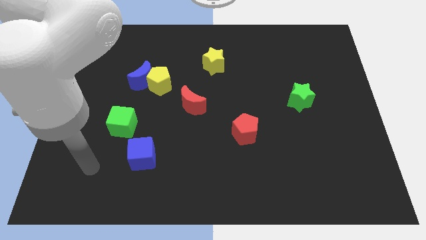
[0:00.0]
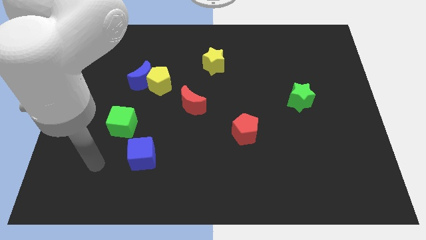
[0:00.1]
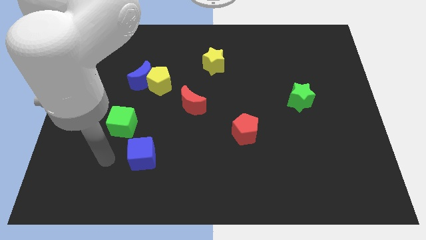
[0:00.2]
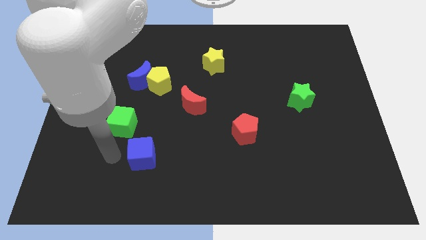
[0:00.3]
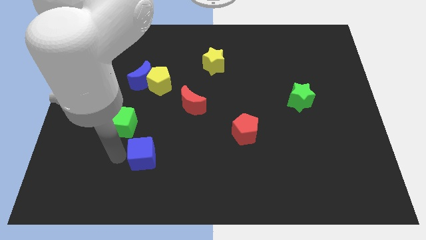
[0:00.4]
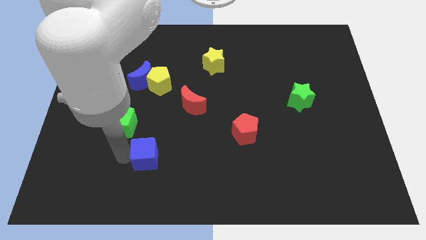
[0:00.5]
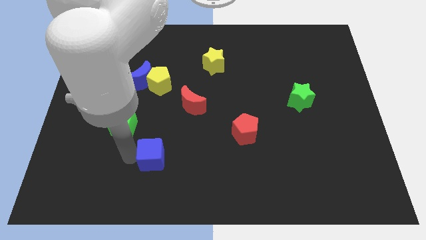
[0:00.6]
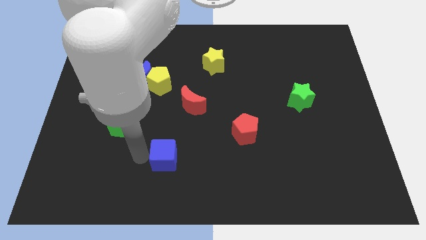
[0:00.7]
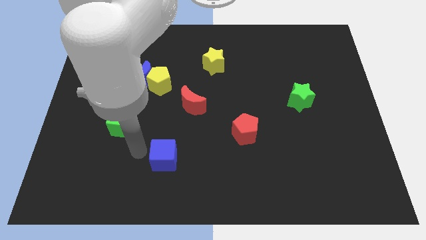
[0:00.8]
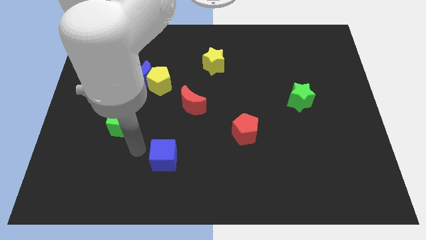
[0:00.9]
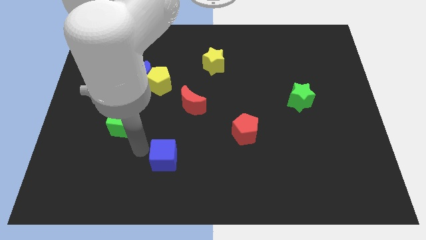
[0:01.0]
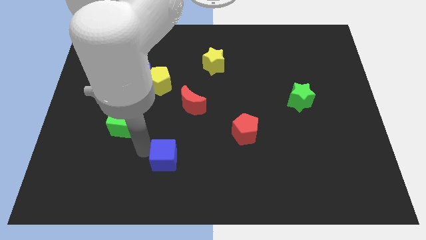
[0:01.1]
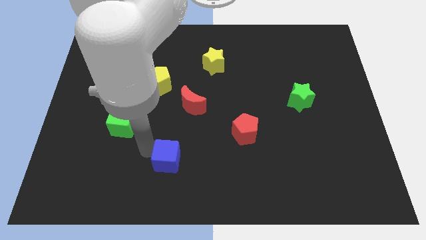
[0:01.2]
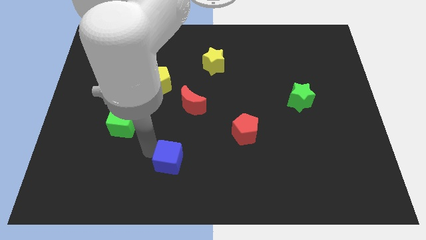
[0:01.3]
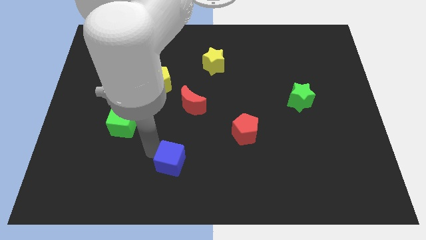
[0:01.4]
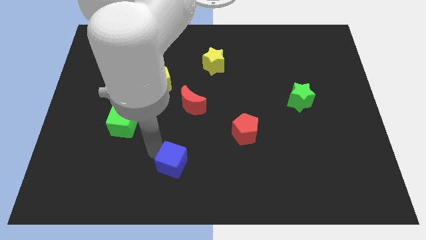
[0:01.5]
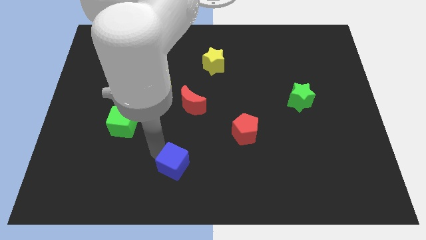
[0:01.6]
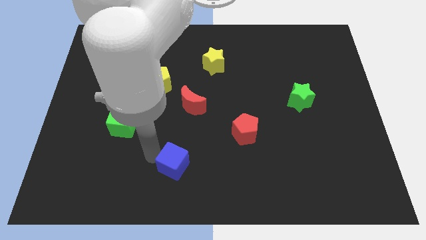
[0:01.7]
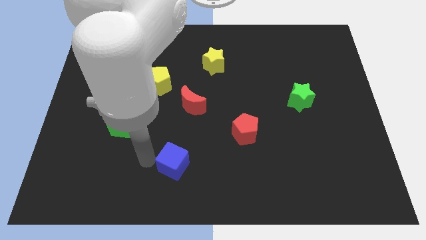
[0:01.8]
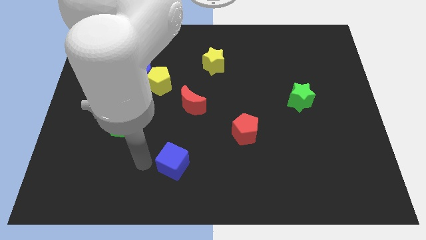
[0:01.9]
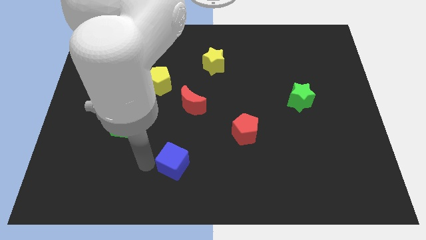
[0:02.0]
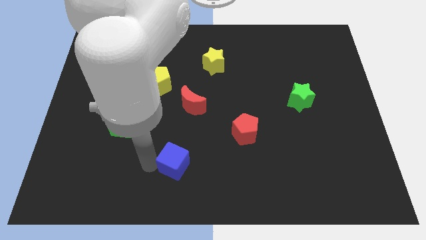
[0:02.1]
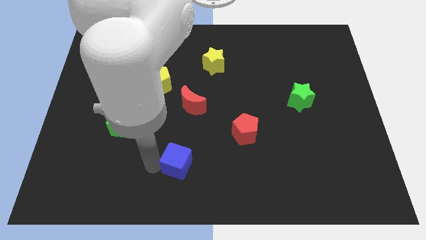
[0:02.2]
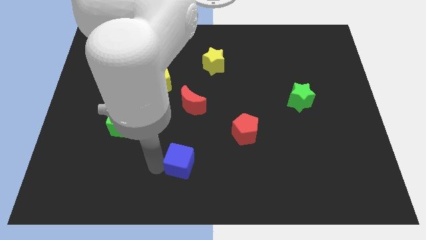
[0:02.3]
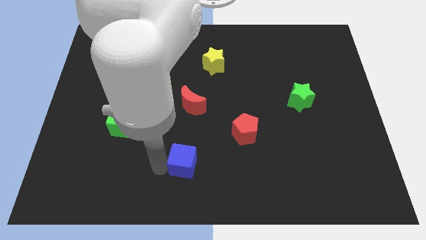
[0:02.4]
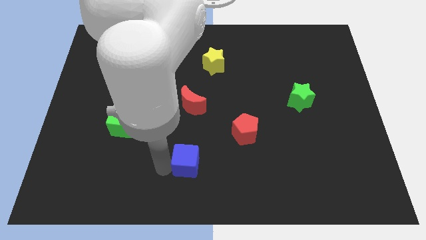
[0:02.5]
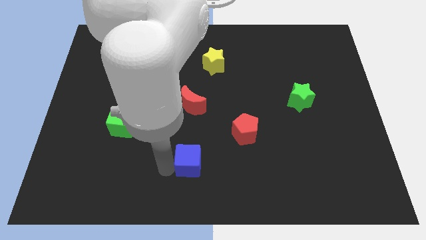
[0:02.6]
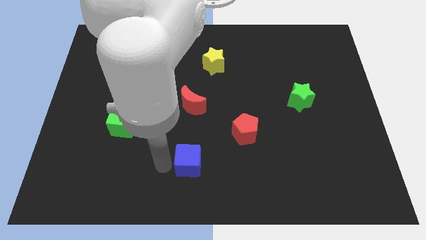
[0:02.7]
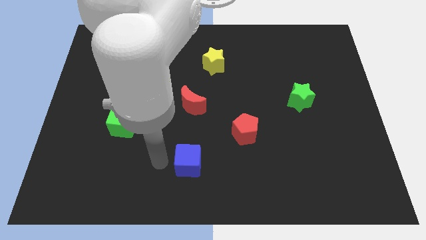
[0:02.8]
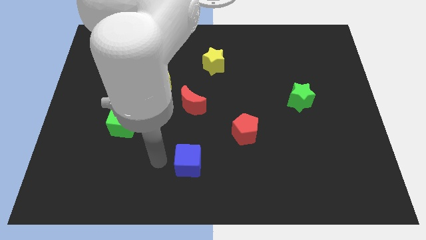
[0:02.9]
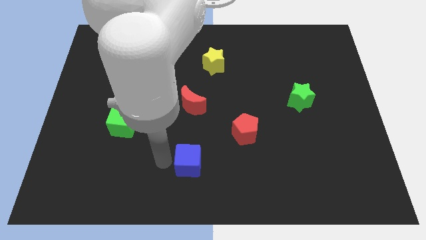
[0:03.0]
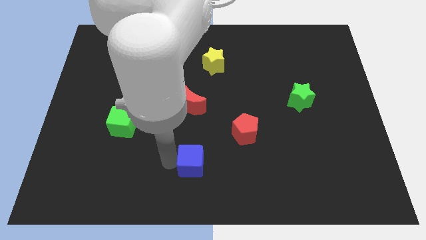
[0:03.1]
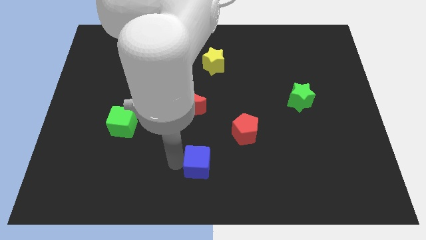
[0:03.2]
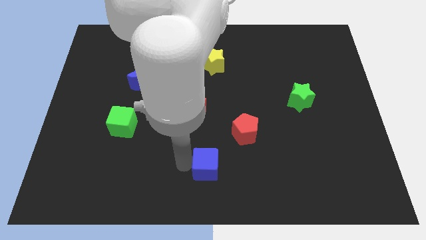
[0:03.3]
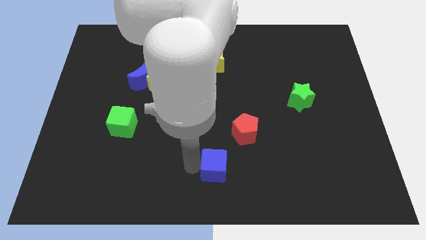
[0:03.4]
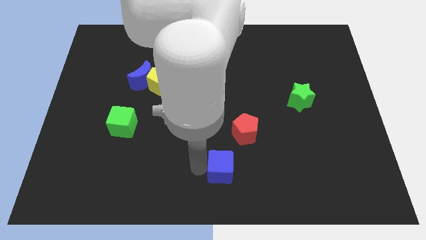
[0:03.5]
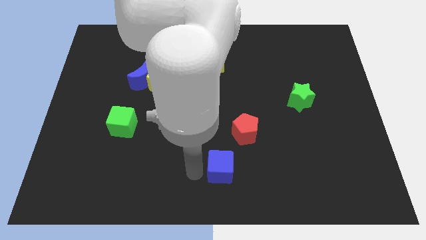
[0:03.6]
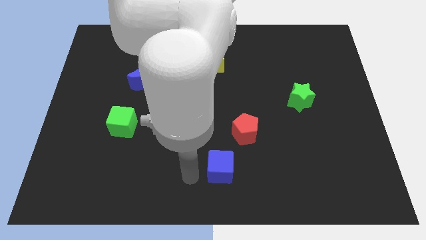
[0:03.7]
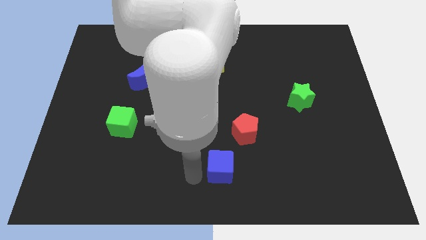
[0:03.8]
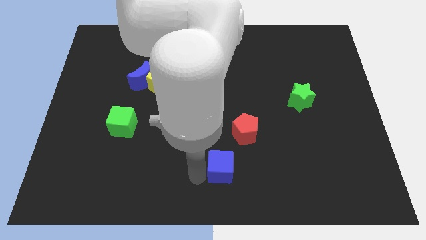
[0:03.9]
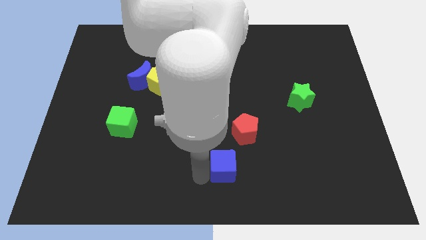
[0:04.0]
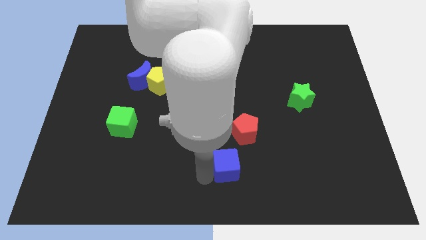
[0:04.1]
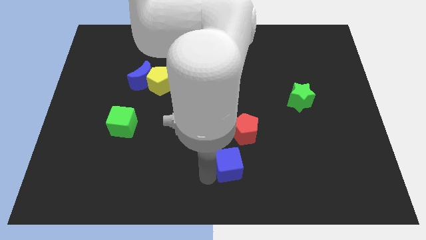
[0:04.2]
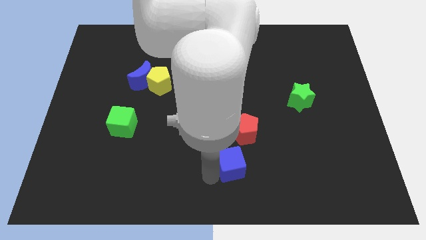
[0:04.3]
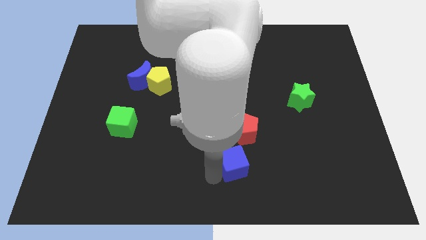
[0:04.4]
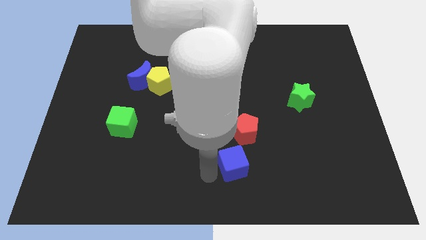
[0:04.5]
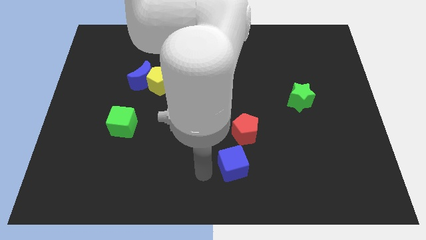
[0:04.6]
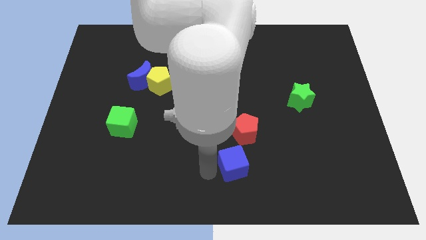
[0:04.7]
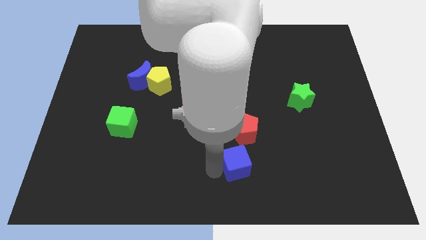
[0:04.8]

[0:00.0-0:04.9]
slide the blue cube to the right

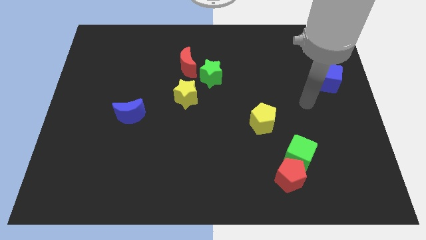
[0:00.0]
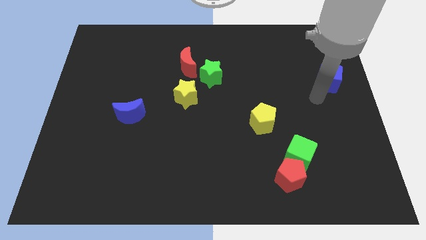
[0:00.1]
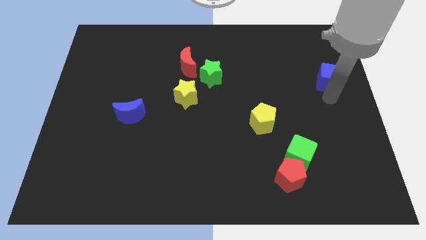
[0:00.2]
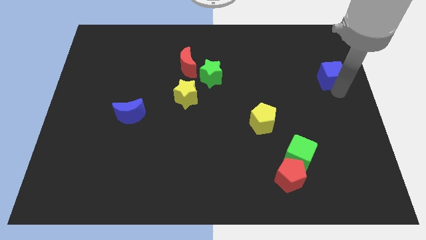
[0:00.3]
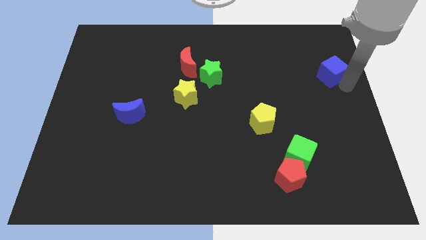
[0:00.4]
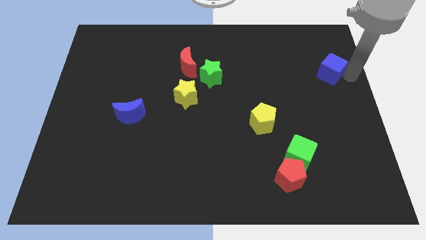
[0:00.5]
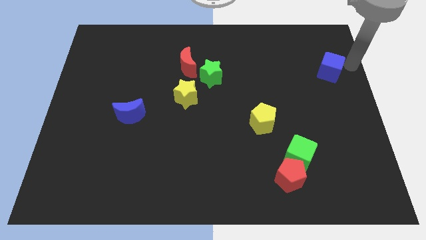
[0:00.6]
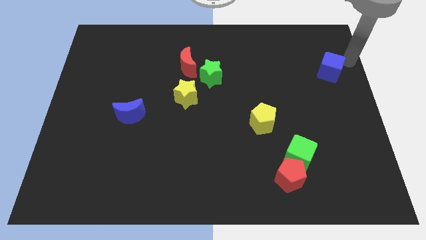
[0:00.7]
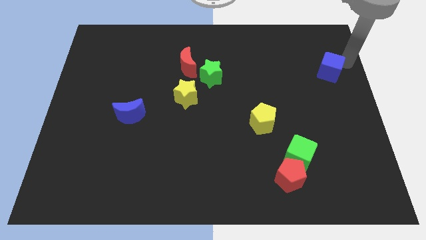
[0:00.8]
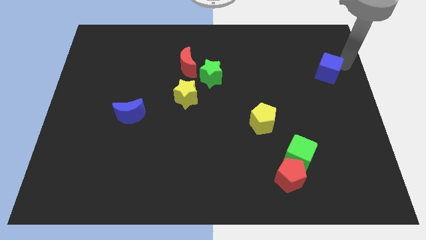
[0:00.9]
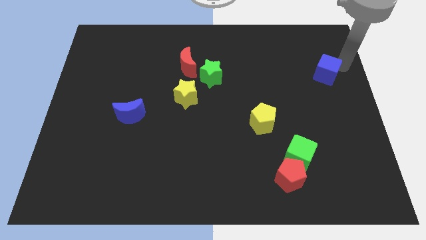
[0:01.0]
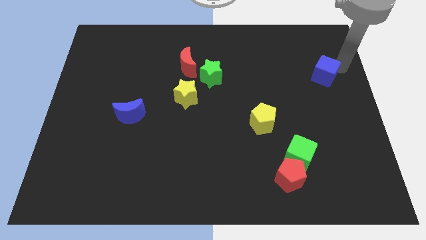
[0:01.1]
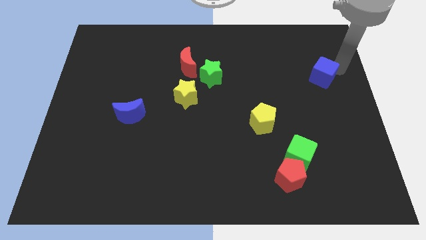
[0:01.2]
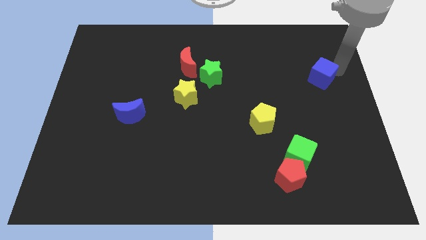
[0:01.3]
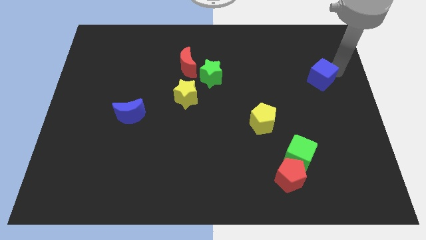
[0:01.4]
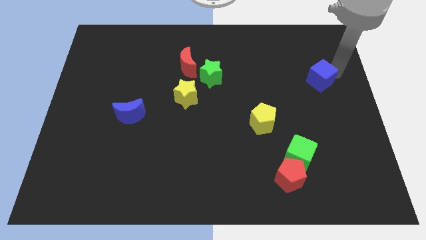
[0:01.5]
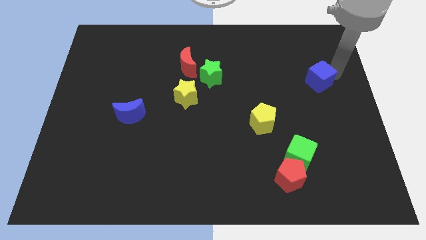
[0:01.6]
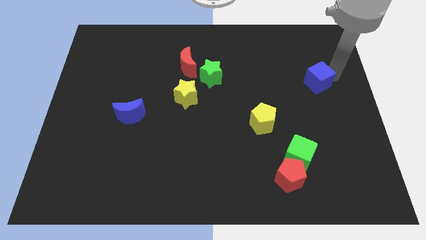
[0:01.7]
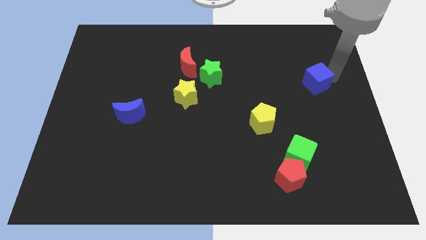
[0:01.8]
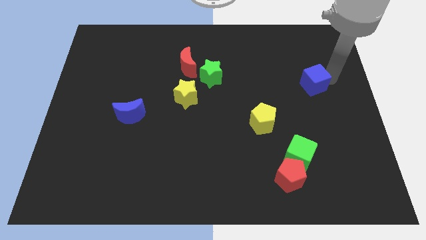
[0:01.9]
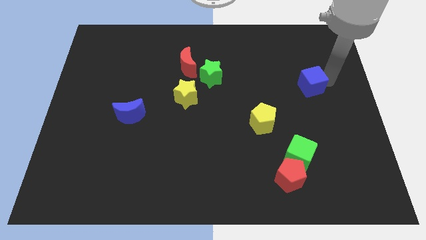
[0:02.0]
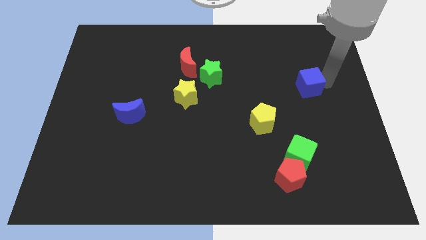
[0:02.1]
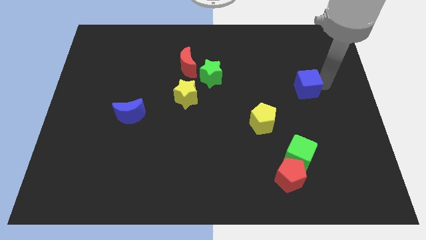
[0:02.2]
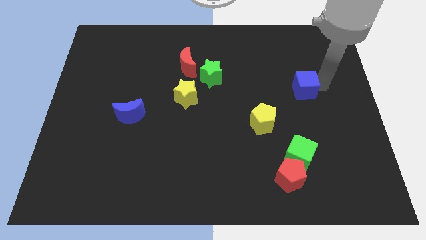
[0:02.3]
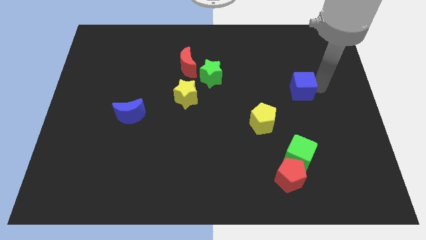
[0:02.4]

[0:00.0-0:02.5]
slightly push the blue cube to the left

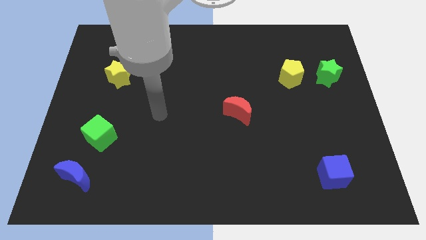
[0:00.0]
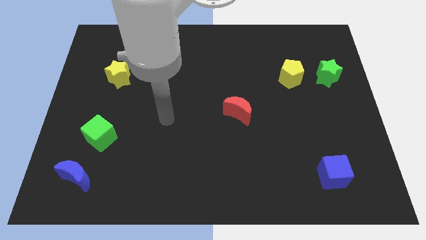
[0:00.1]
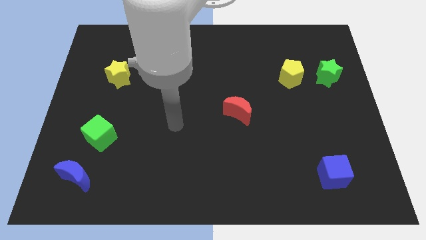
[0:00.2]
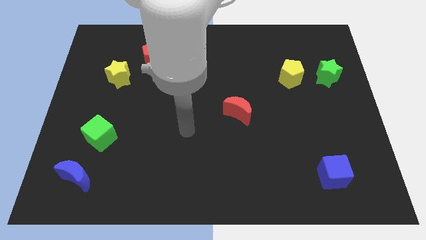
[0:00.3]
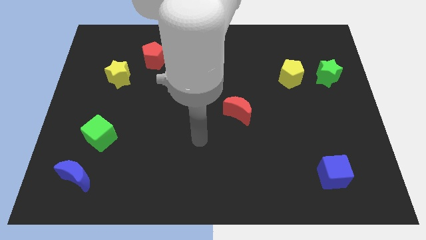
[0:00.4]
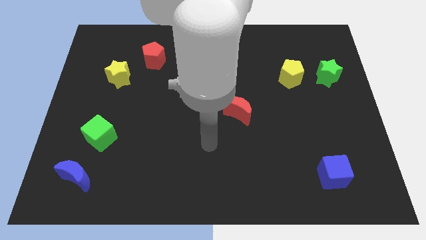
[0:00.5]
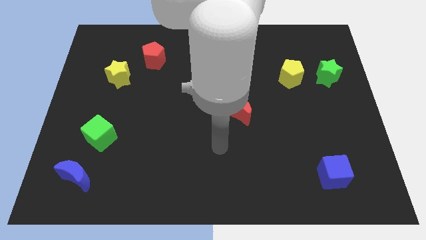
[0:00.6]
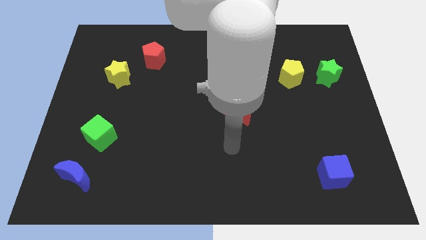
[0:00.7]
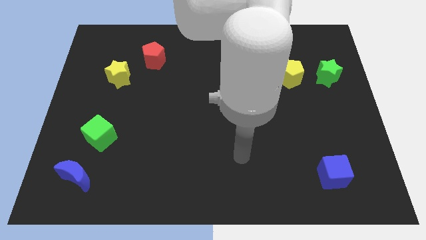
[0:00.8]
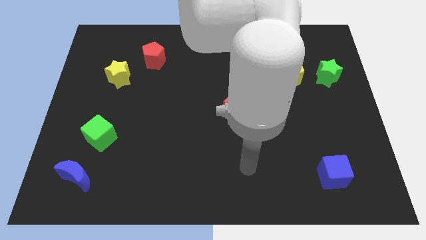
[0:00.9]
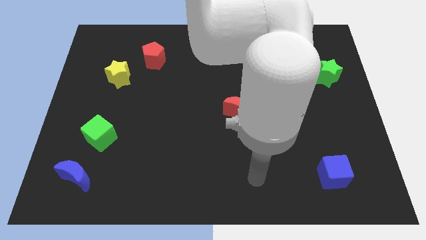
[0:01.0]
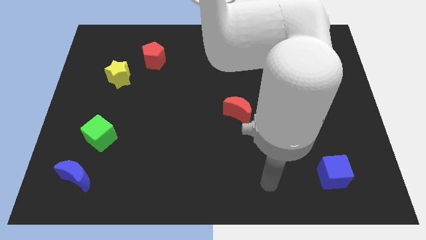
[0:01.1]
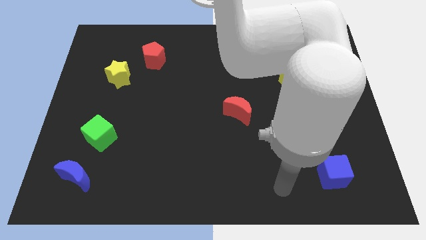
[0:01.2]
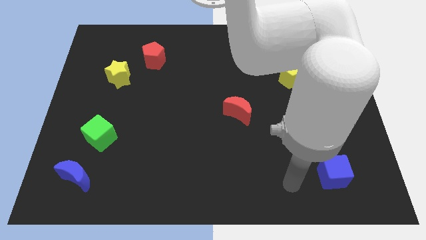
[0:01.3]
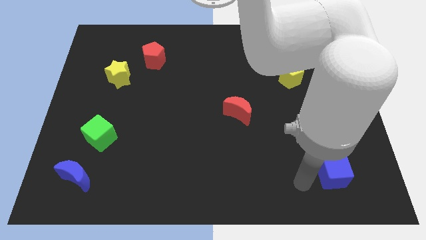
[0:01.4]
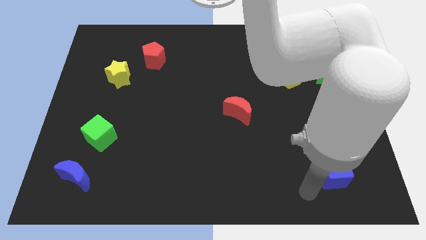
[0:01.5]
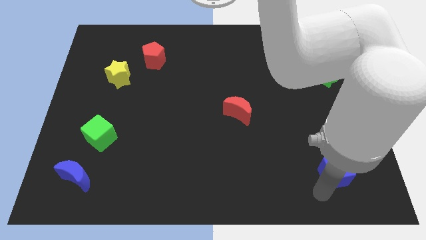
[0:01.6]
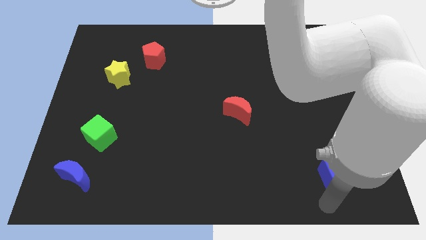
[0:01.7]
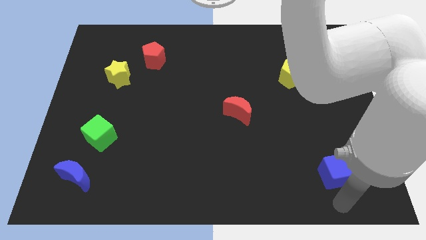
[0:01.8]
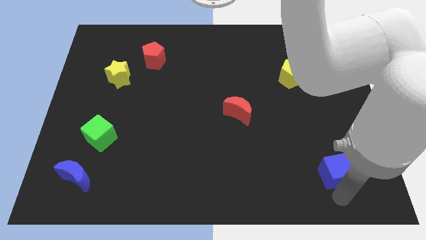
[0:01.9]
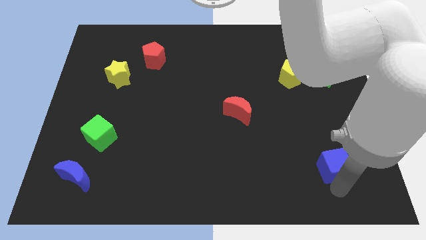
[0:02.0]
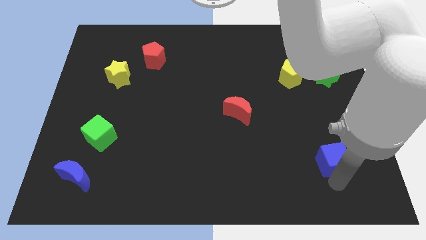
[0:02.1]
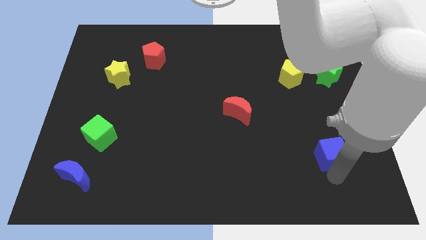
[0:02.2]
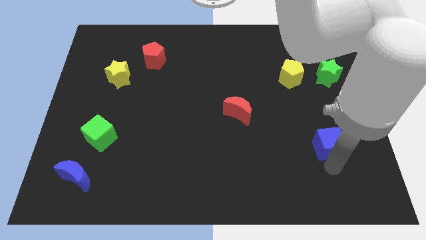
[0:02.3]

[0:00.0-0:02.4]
slide the blue cube up a bit
